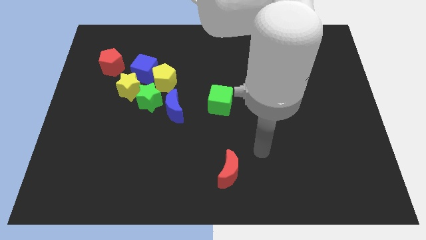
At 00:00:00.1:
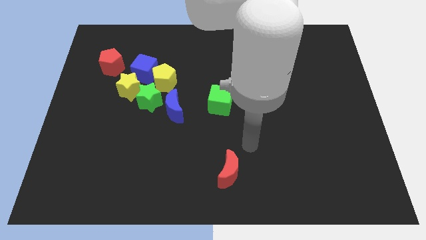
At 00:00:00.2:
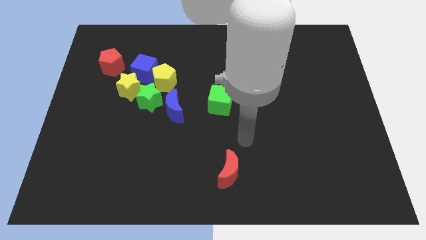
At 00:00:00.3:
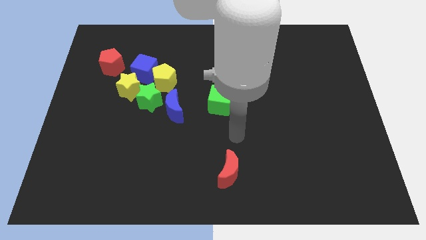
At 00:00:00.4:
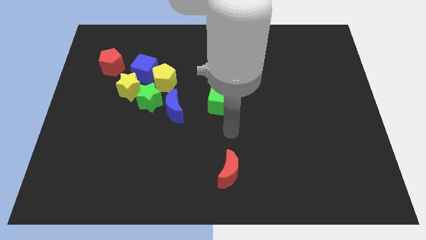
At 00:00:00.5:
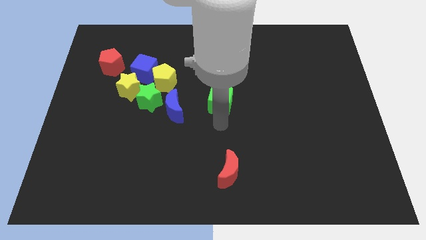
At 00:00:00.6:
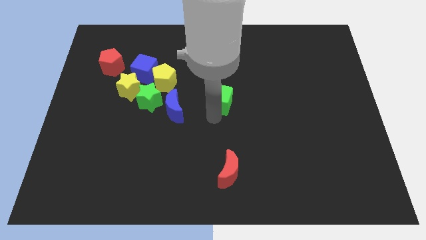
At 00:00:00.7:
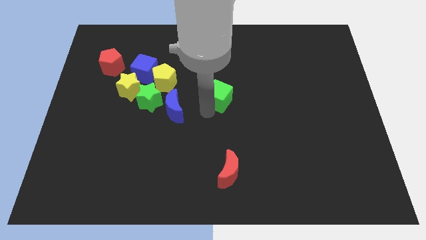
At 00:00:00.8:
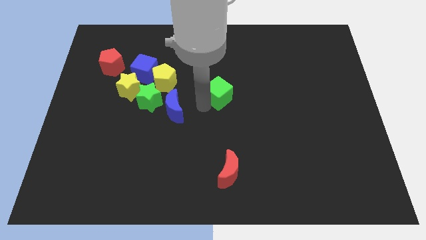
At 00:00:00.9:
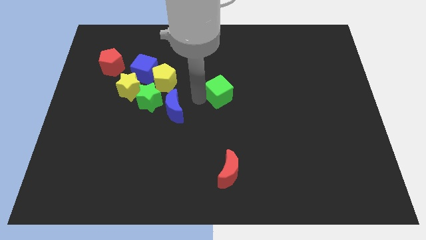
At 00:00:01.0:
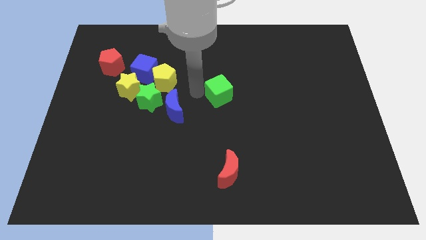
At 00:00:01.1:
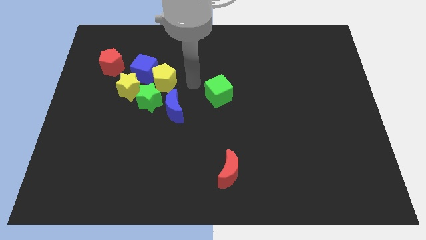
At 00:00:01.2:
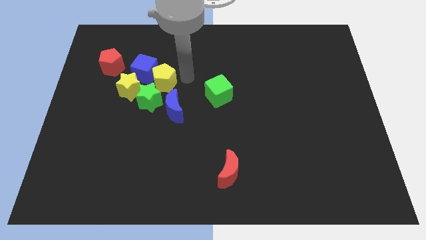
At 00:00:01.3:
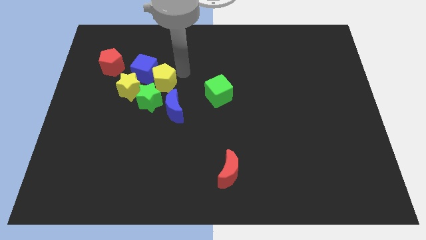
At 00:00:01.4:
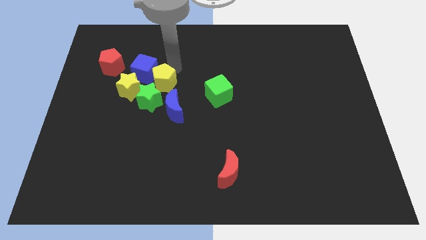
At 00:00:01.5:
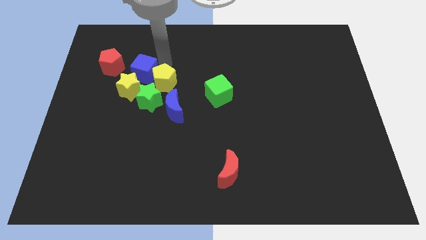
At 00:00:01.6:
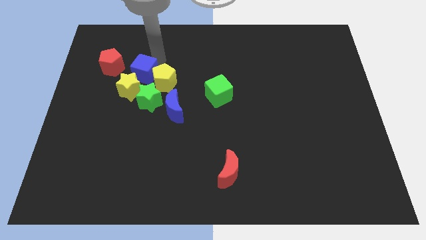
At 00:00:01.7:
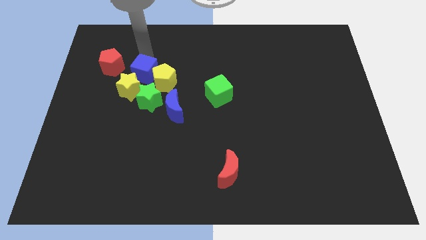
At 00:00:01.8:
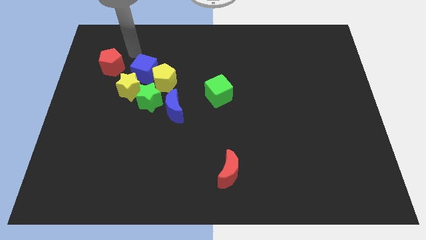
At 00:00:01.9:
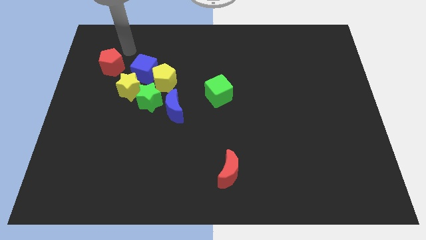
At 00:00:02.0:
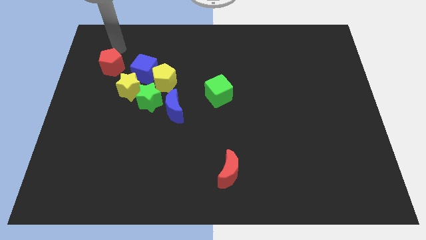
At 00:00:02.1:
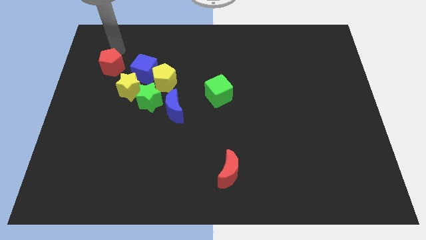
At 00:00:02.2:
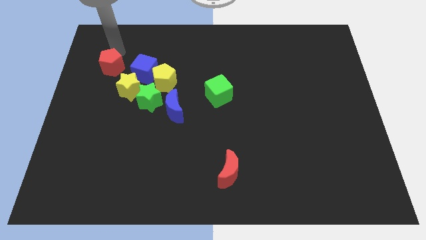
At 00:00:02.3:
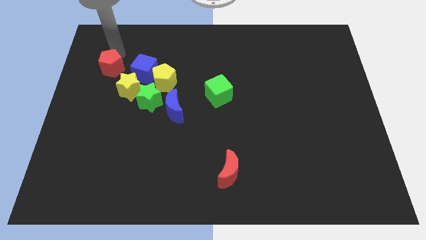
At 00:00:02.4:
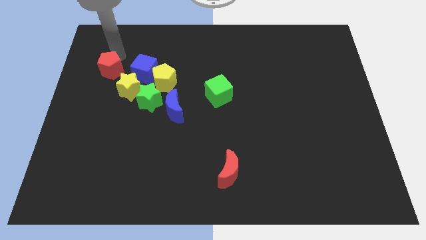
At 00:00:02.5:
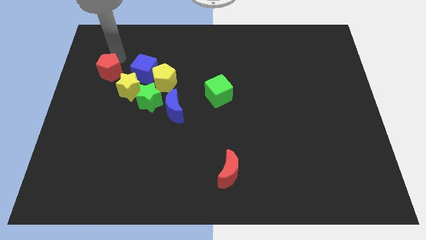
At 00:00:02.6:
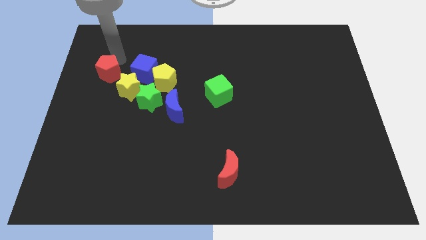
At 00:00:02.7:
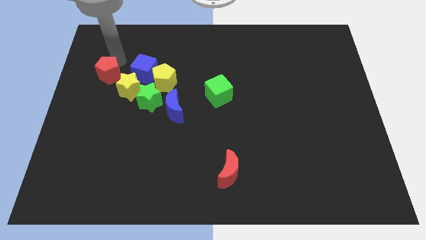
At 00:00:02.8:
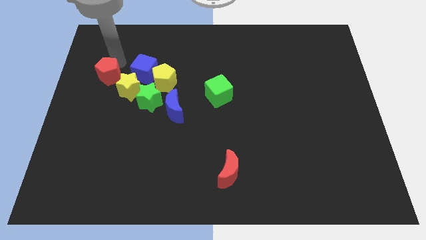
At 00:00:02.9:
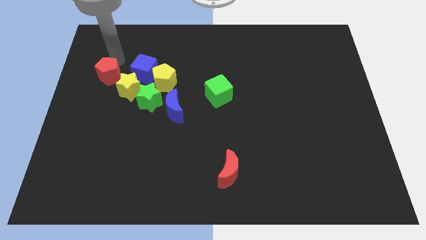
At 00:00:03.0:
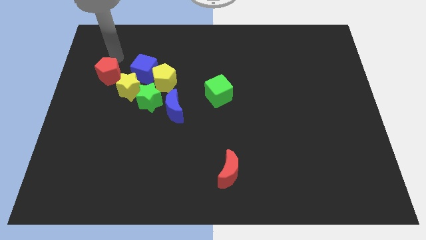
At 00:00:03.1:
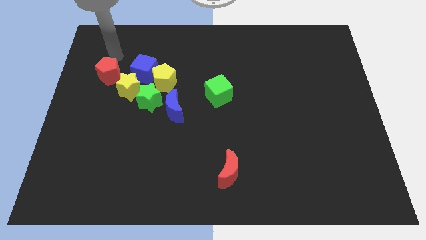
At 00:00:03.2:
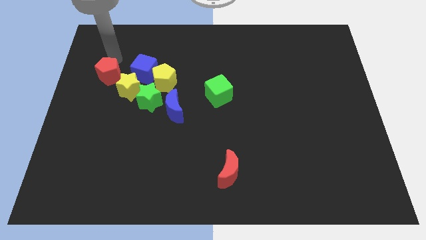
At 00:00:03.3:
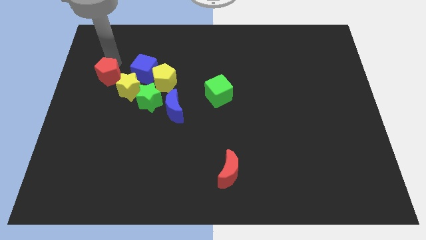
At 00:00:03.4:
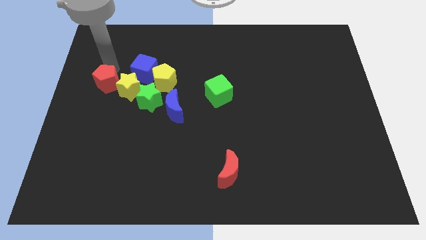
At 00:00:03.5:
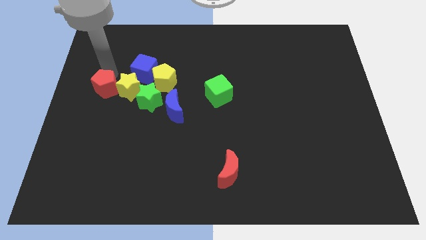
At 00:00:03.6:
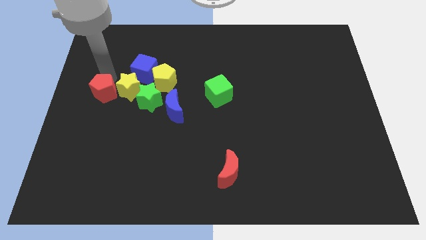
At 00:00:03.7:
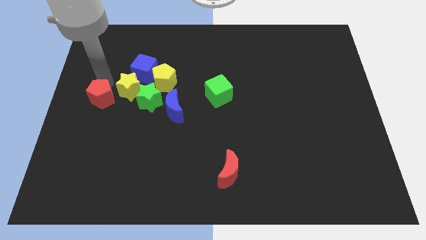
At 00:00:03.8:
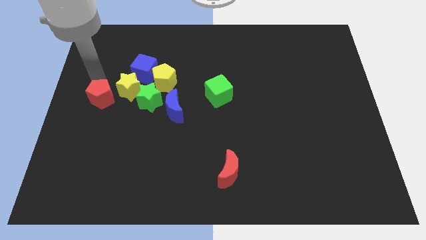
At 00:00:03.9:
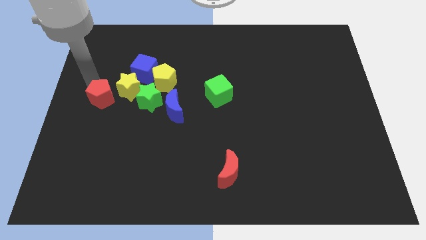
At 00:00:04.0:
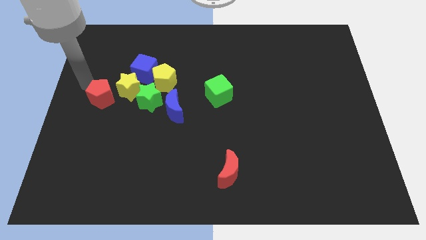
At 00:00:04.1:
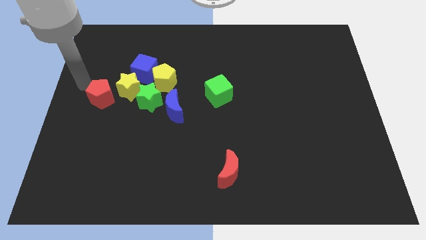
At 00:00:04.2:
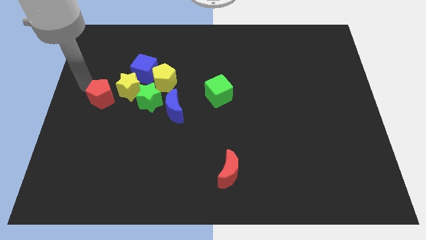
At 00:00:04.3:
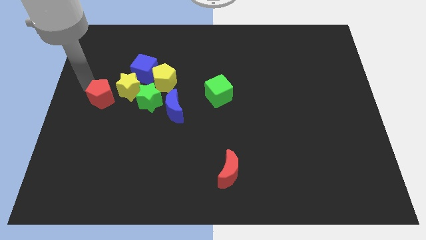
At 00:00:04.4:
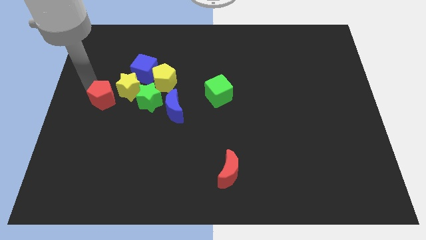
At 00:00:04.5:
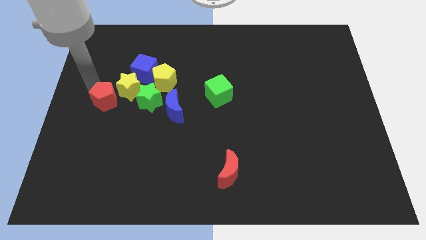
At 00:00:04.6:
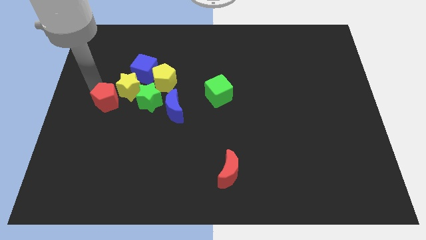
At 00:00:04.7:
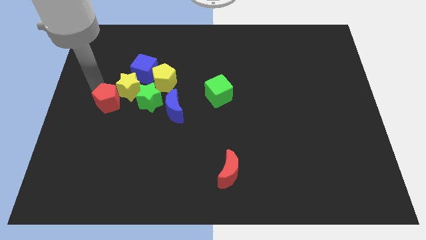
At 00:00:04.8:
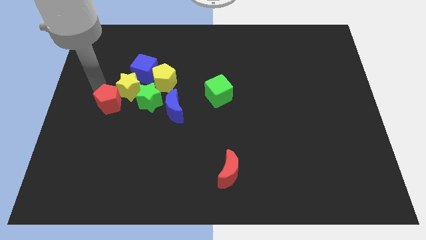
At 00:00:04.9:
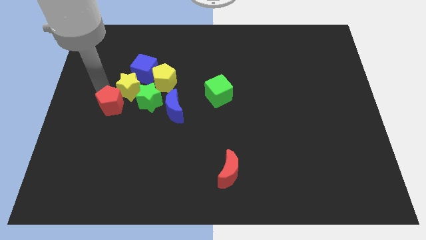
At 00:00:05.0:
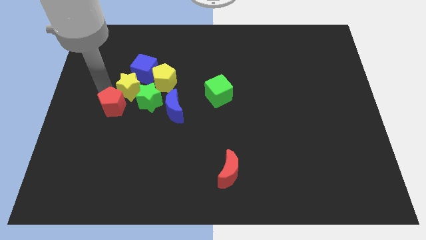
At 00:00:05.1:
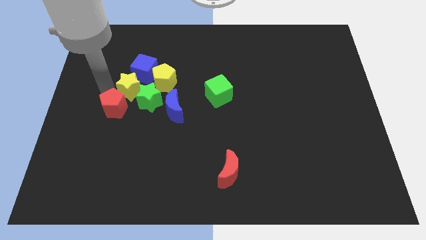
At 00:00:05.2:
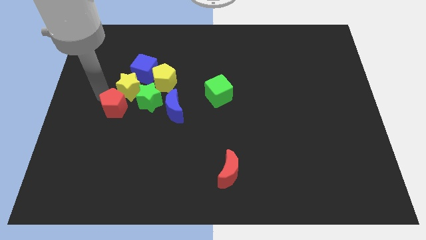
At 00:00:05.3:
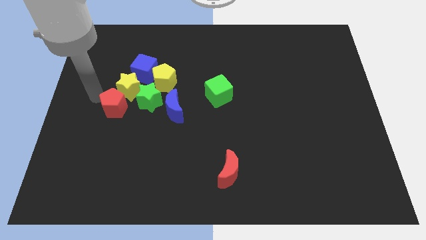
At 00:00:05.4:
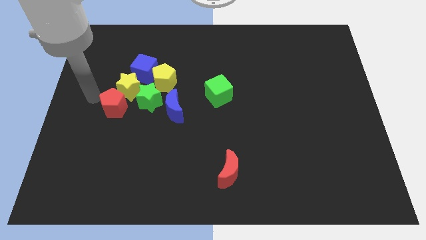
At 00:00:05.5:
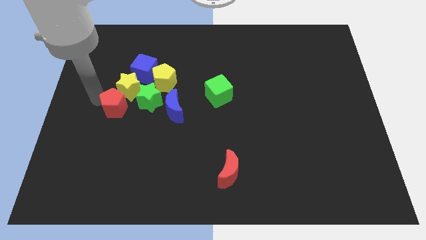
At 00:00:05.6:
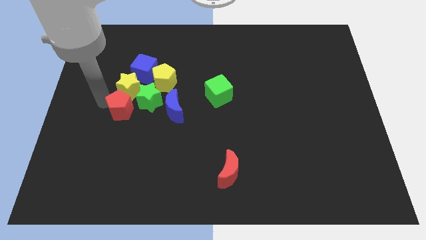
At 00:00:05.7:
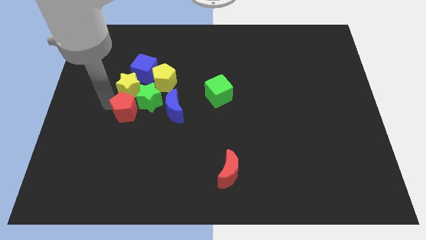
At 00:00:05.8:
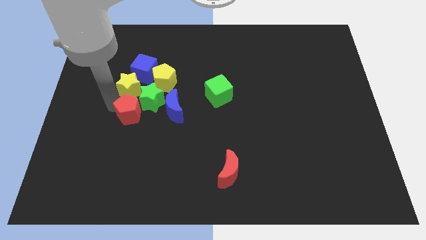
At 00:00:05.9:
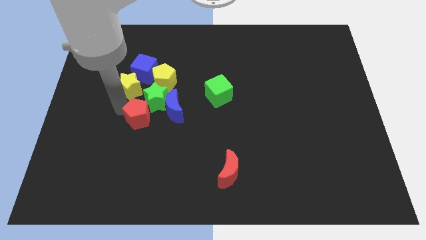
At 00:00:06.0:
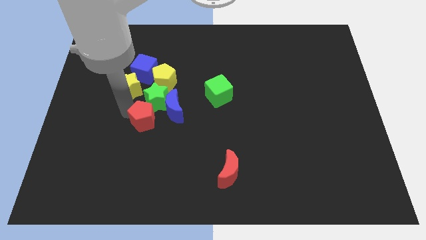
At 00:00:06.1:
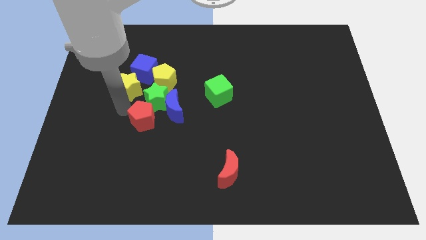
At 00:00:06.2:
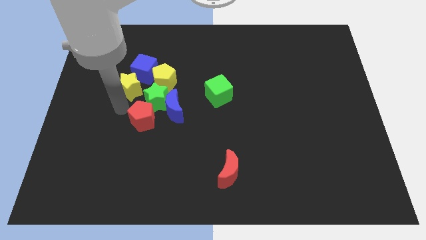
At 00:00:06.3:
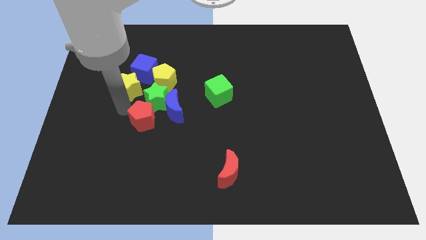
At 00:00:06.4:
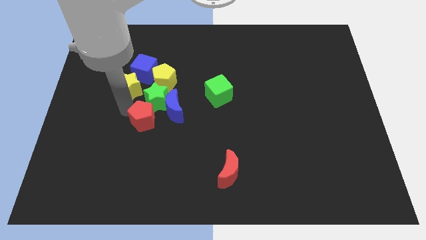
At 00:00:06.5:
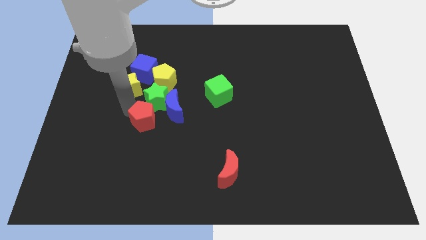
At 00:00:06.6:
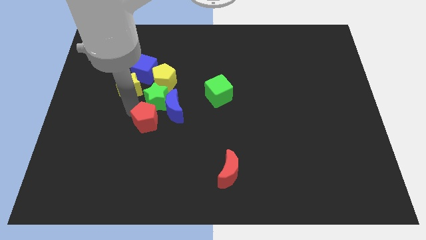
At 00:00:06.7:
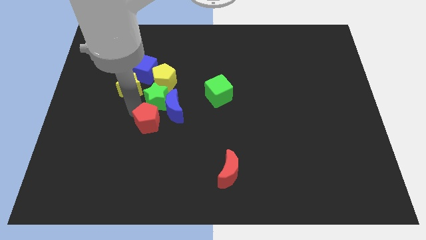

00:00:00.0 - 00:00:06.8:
move the red pentagon down and to the right diagonally

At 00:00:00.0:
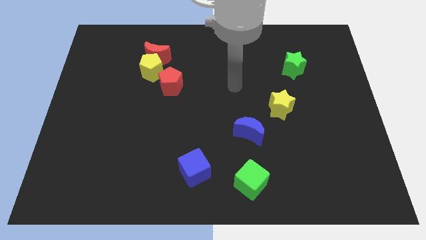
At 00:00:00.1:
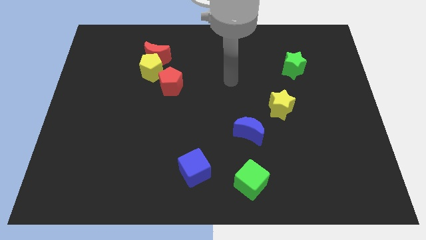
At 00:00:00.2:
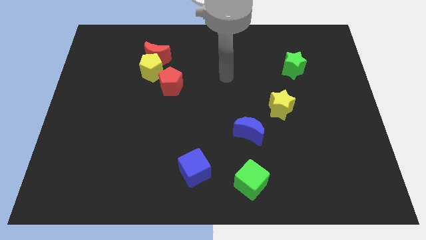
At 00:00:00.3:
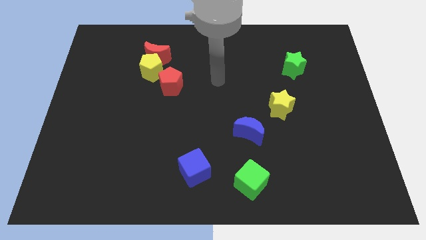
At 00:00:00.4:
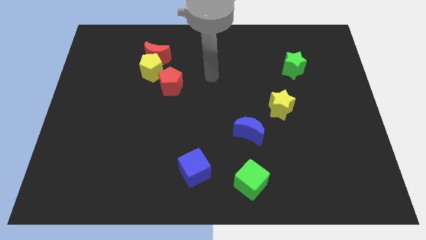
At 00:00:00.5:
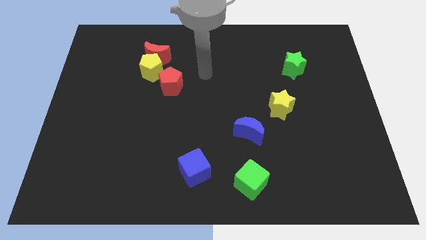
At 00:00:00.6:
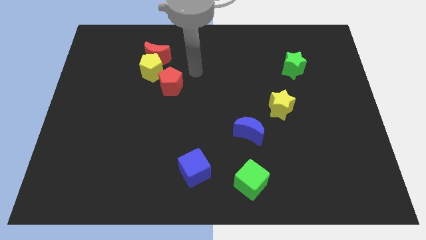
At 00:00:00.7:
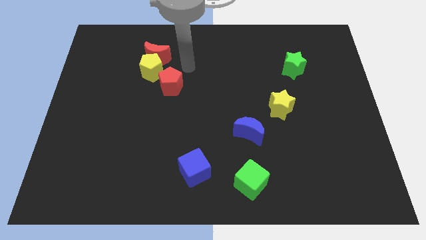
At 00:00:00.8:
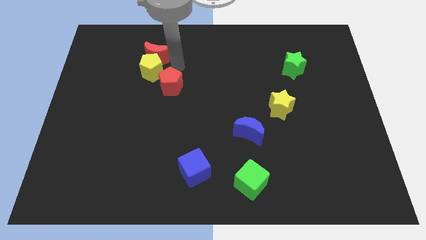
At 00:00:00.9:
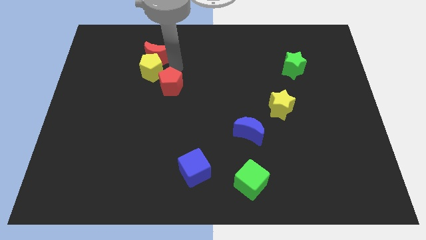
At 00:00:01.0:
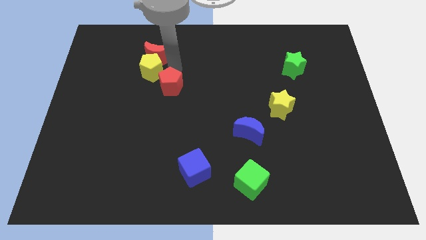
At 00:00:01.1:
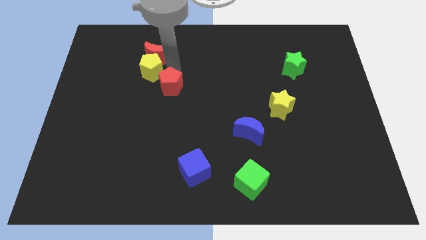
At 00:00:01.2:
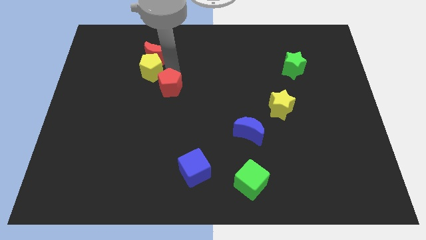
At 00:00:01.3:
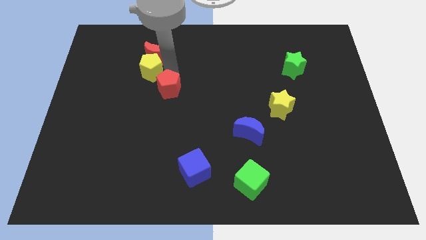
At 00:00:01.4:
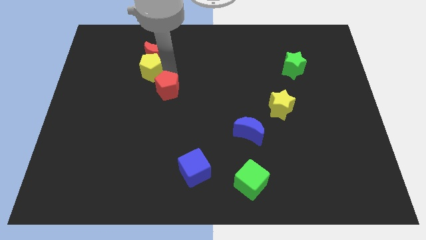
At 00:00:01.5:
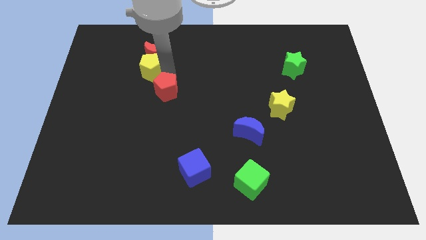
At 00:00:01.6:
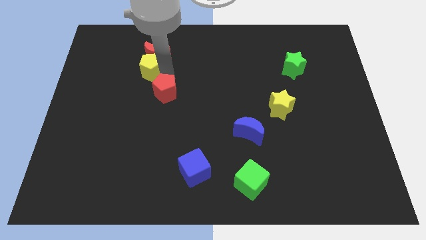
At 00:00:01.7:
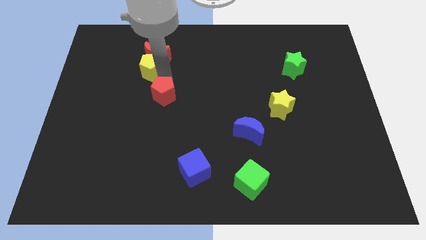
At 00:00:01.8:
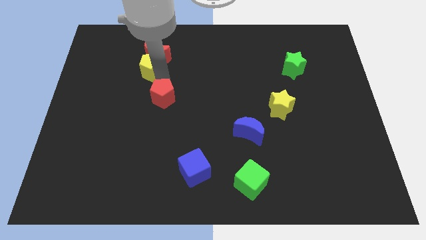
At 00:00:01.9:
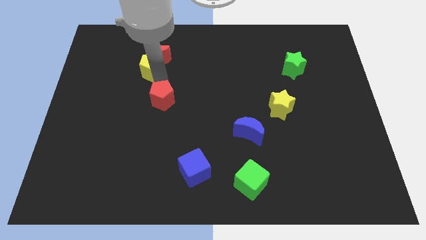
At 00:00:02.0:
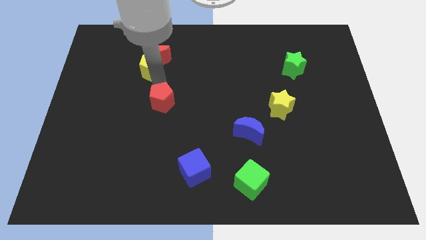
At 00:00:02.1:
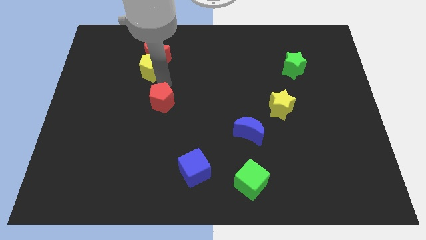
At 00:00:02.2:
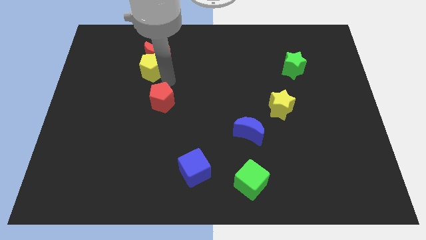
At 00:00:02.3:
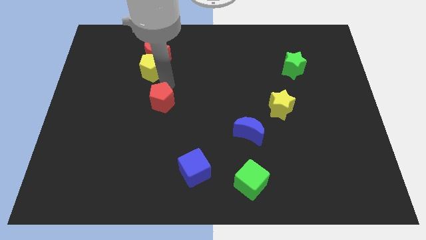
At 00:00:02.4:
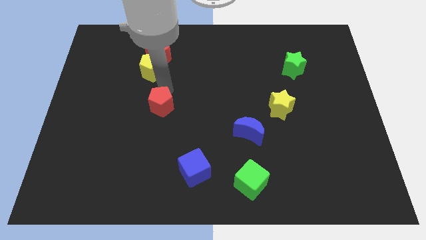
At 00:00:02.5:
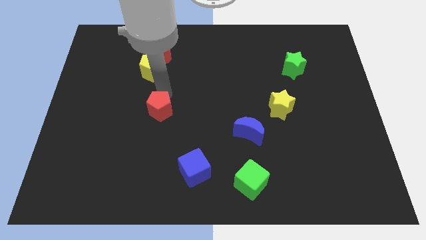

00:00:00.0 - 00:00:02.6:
slightly move the red pentagon down
